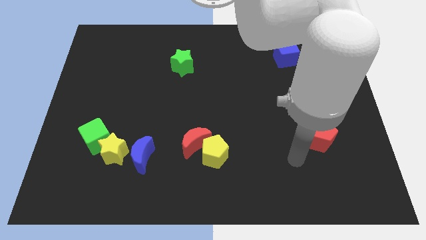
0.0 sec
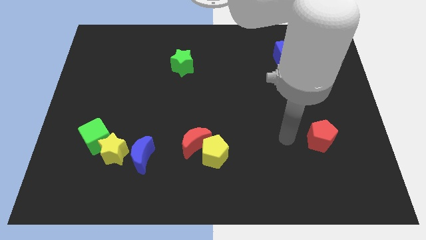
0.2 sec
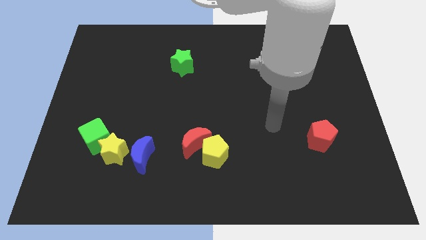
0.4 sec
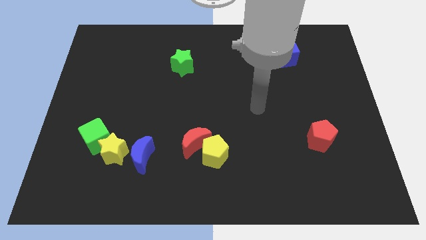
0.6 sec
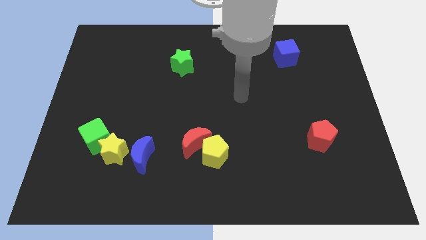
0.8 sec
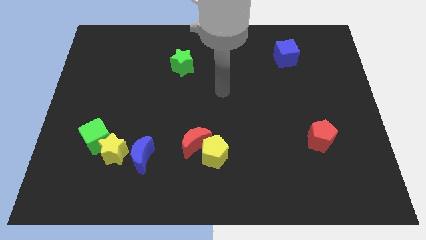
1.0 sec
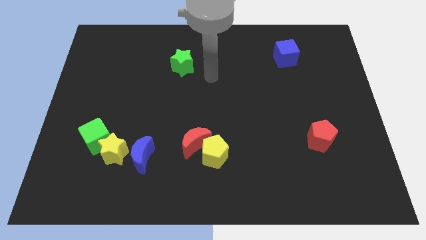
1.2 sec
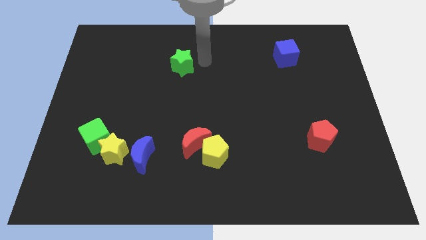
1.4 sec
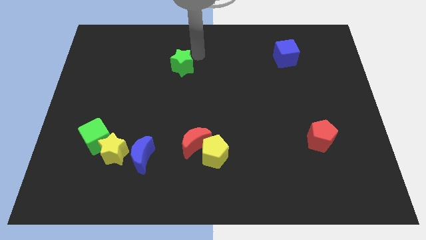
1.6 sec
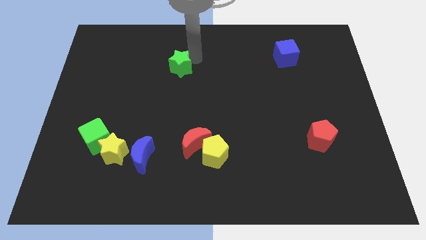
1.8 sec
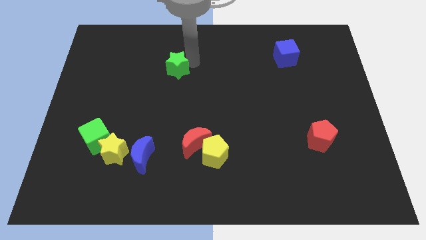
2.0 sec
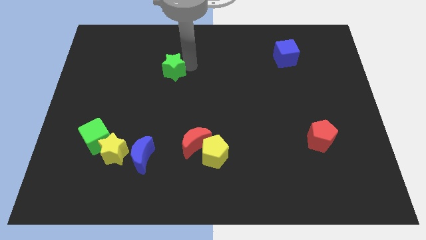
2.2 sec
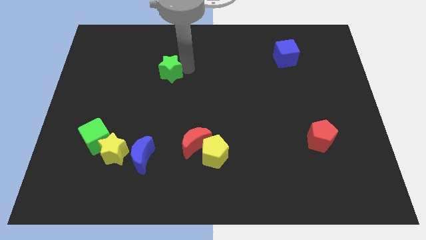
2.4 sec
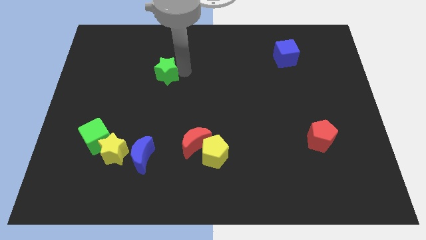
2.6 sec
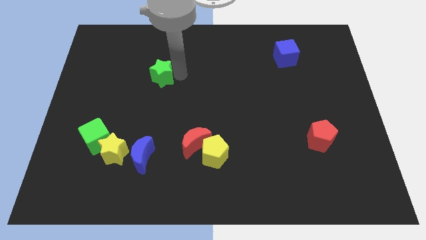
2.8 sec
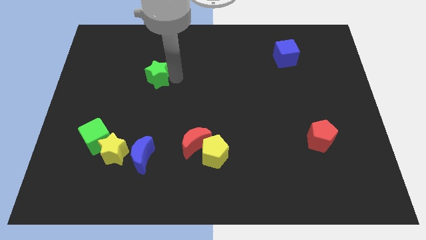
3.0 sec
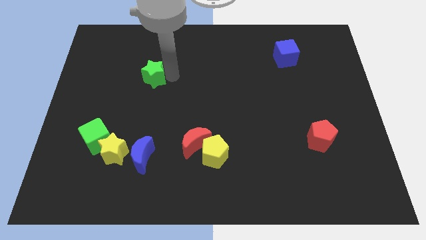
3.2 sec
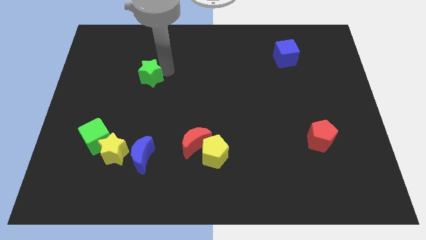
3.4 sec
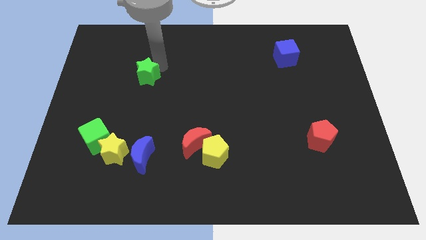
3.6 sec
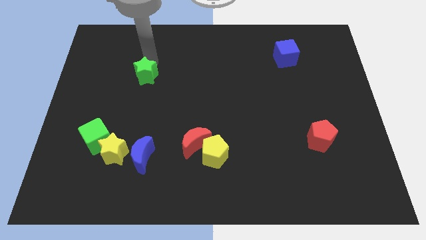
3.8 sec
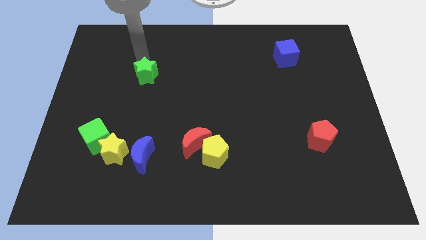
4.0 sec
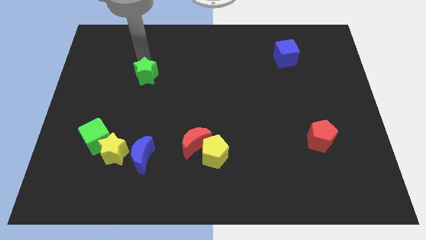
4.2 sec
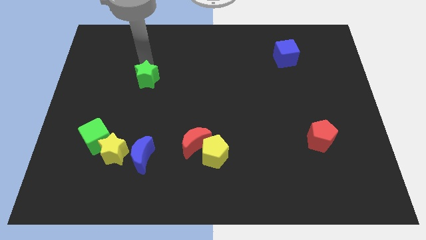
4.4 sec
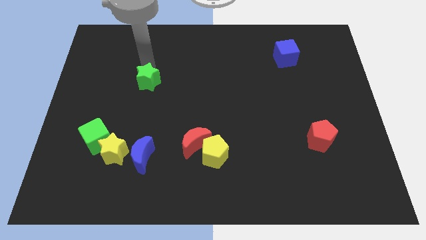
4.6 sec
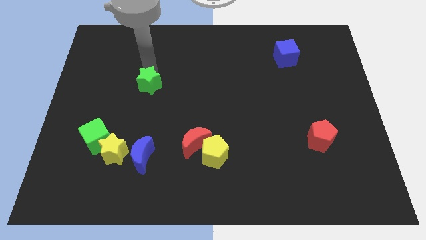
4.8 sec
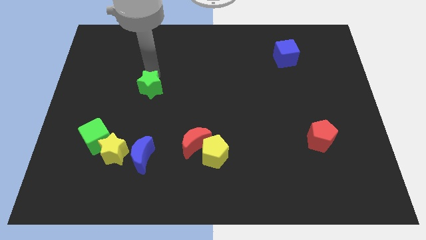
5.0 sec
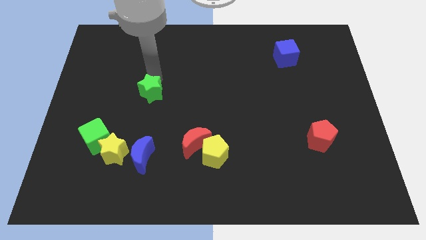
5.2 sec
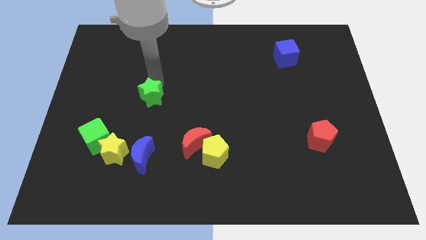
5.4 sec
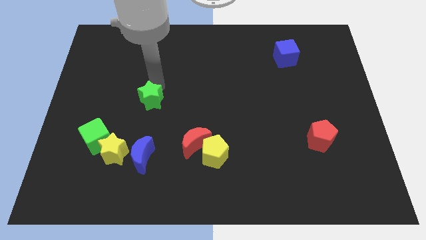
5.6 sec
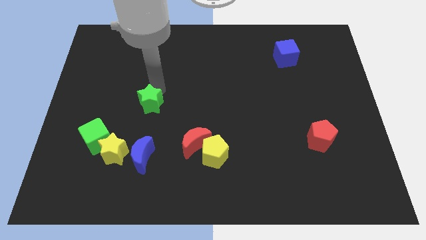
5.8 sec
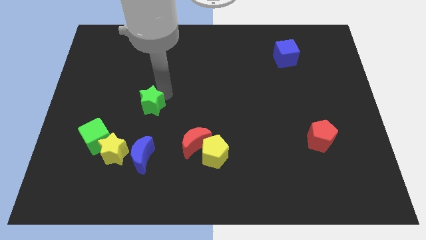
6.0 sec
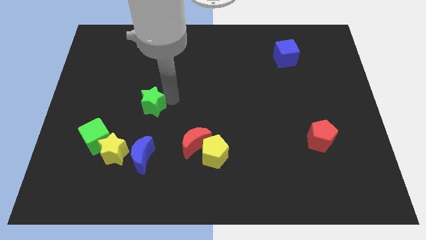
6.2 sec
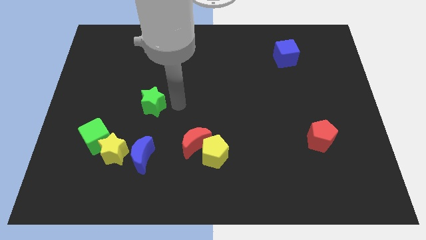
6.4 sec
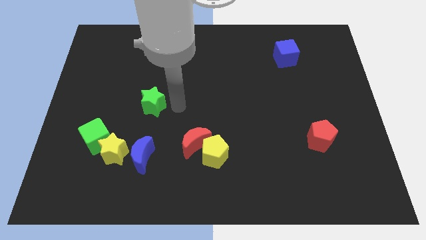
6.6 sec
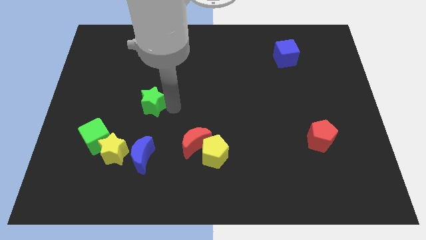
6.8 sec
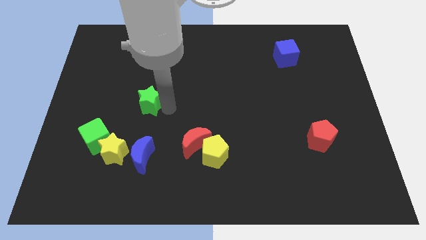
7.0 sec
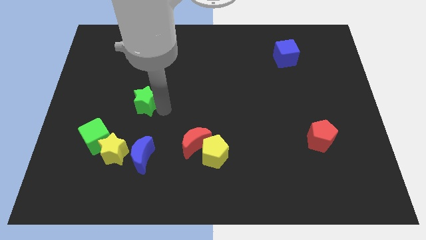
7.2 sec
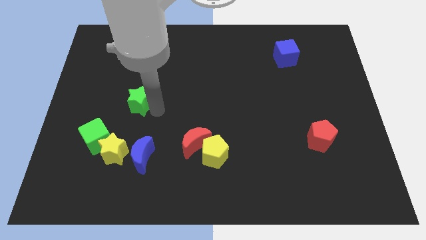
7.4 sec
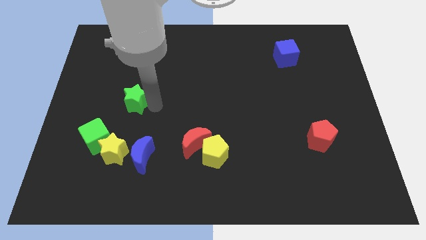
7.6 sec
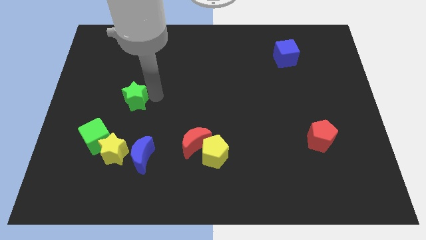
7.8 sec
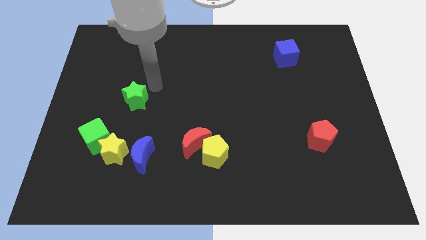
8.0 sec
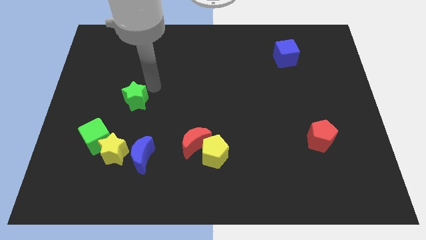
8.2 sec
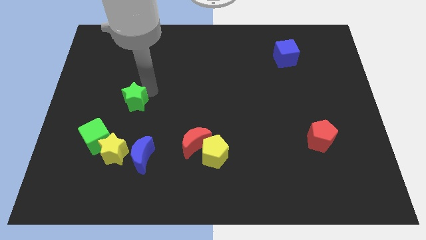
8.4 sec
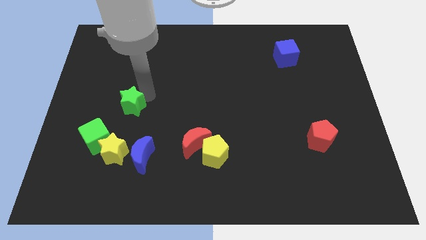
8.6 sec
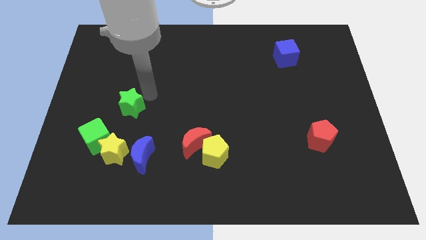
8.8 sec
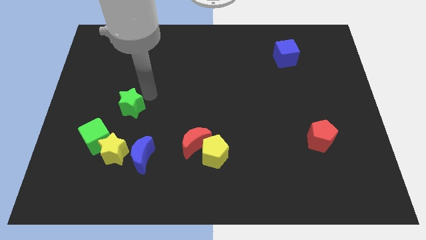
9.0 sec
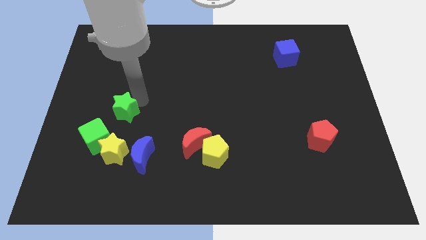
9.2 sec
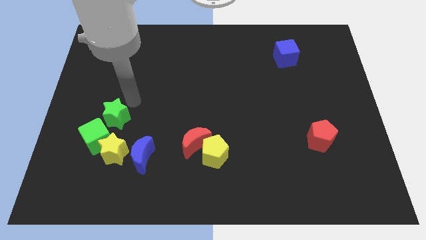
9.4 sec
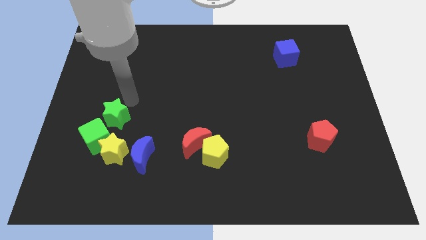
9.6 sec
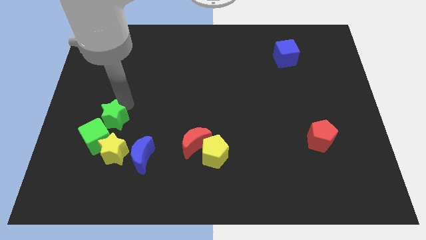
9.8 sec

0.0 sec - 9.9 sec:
put the green star to the green cube

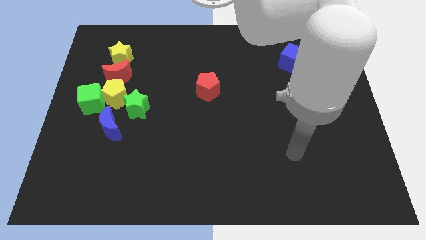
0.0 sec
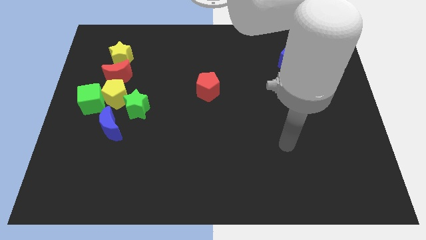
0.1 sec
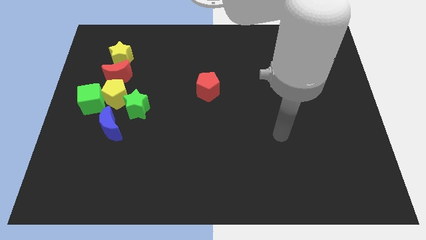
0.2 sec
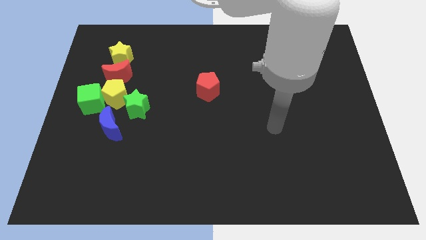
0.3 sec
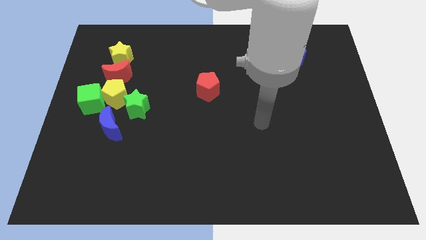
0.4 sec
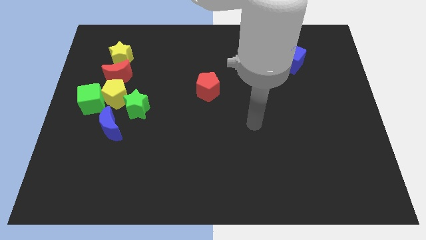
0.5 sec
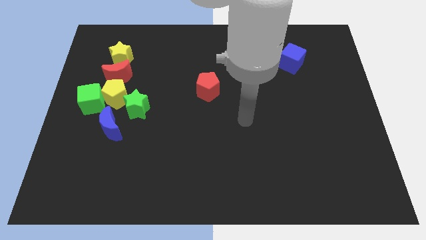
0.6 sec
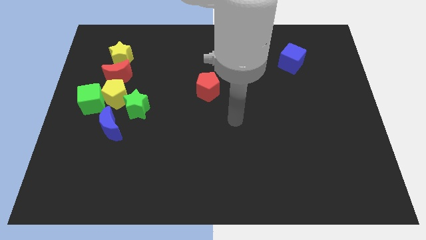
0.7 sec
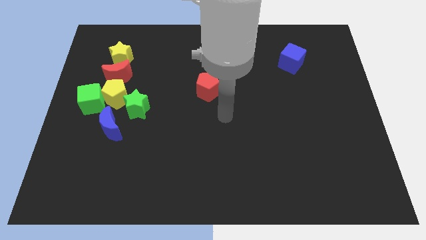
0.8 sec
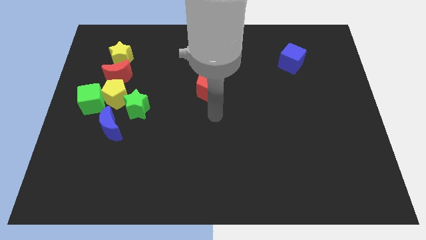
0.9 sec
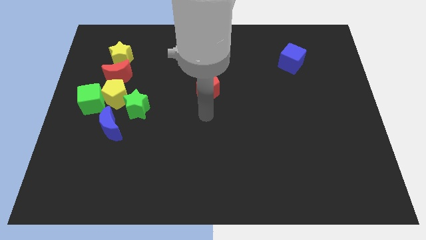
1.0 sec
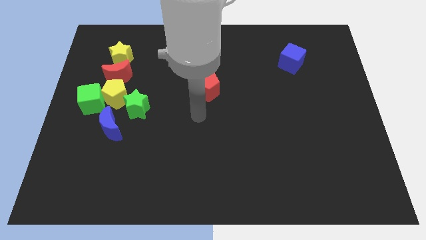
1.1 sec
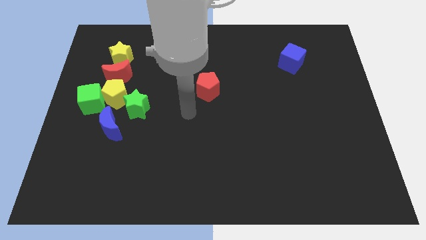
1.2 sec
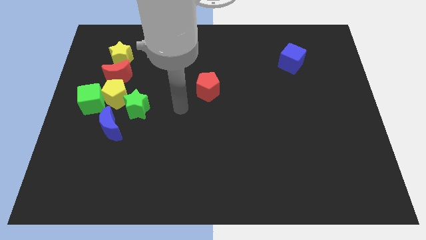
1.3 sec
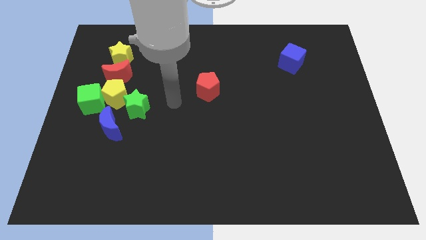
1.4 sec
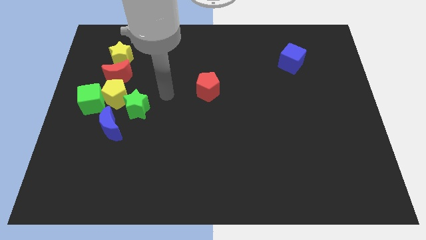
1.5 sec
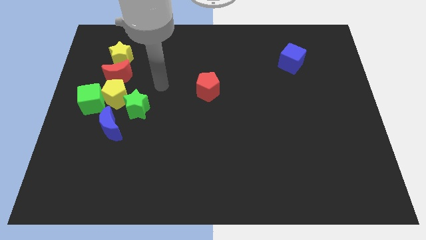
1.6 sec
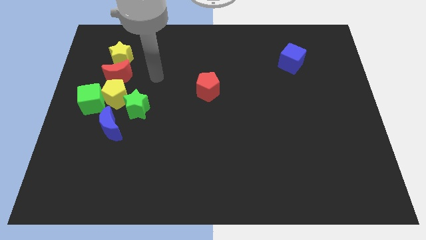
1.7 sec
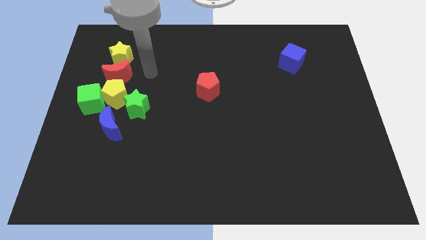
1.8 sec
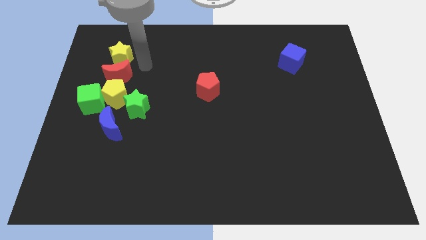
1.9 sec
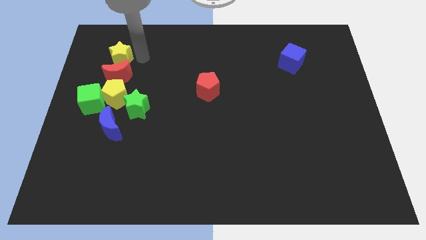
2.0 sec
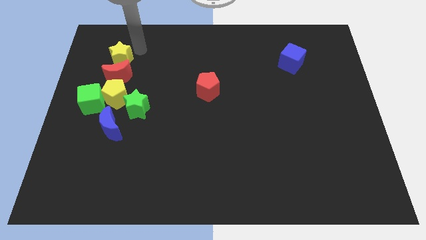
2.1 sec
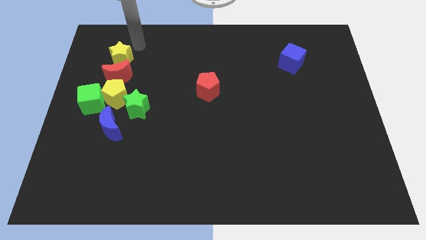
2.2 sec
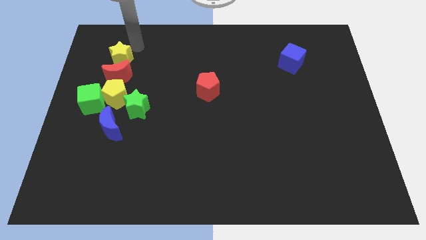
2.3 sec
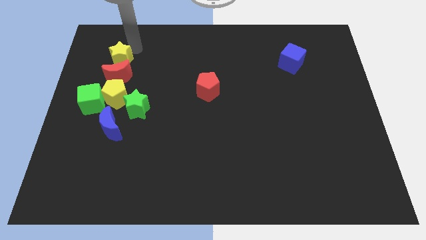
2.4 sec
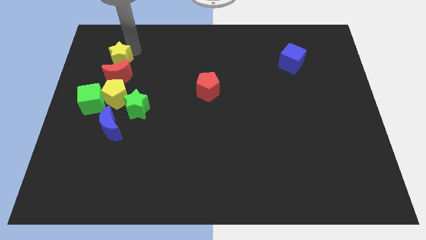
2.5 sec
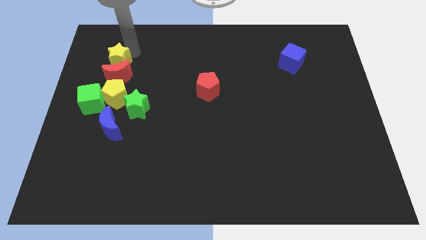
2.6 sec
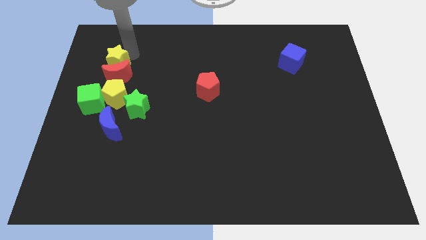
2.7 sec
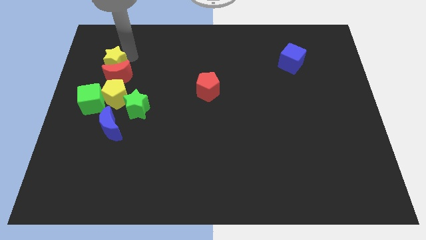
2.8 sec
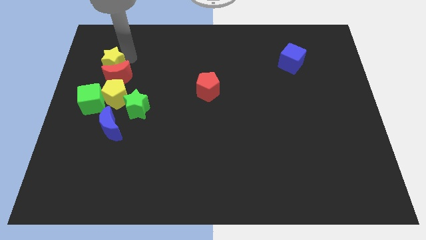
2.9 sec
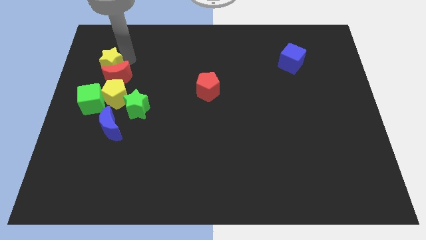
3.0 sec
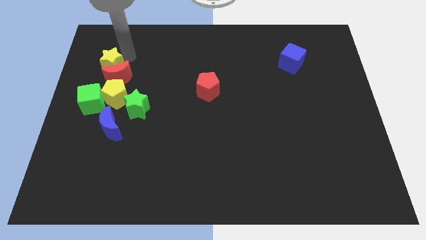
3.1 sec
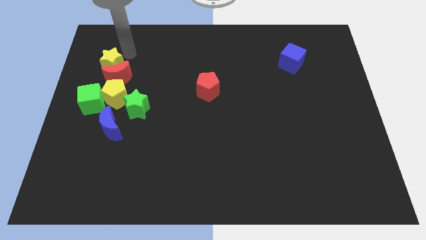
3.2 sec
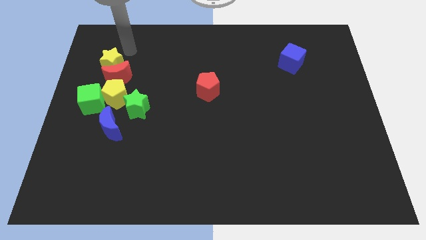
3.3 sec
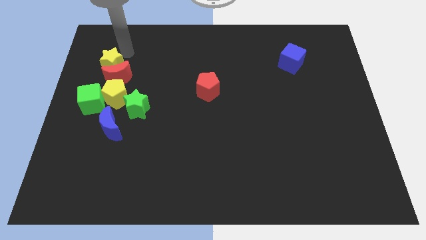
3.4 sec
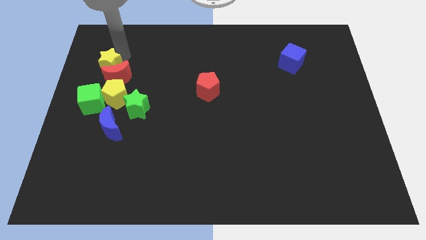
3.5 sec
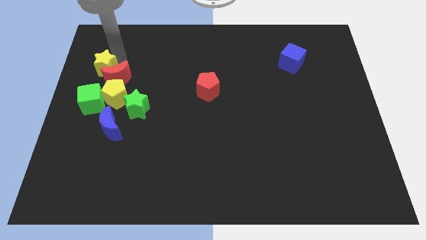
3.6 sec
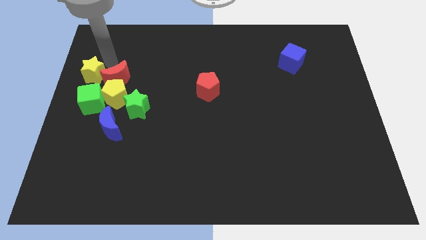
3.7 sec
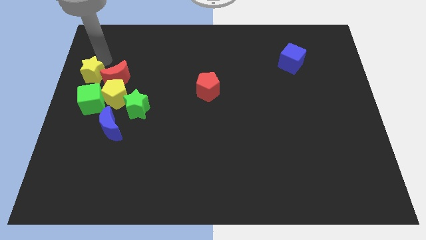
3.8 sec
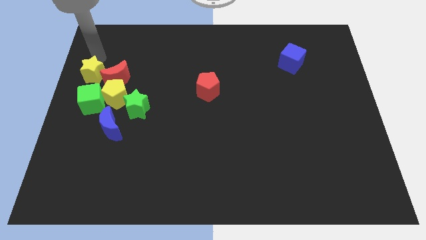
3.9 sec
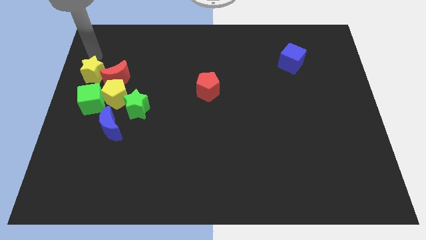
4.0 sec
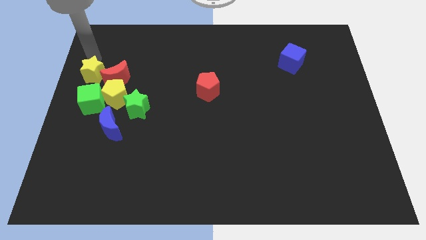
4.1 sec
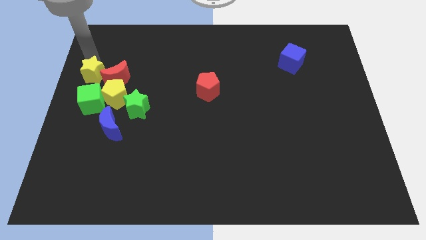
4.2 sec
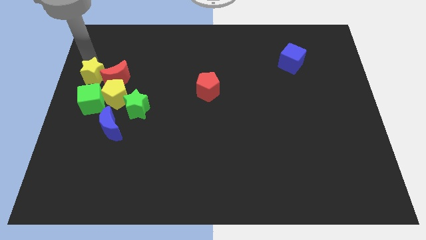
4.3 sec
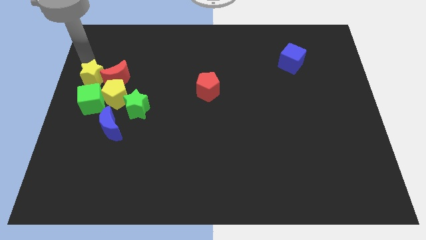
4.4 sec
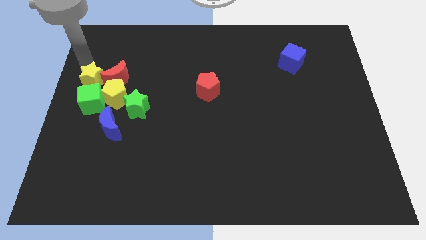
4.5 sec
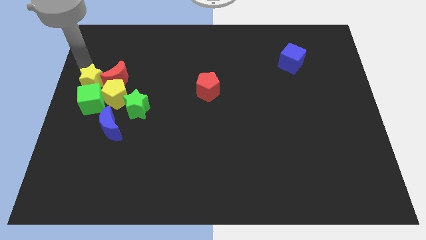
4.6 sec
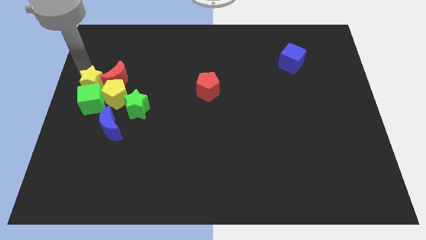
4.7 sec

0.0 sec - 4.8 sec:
move the yellow star close to the green cube
